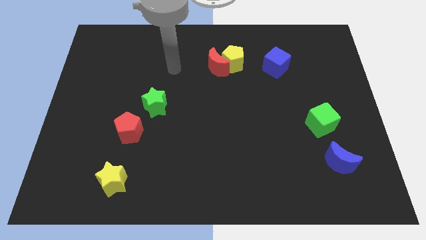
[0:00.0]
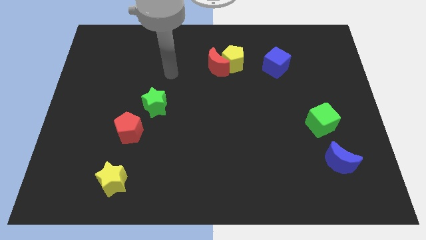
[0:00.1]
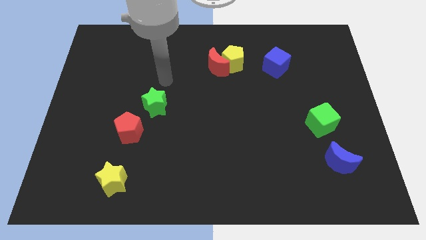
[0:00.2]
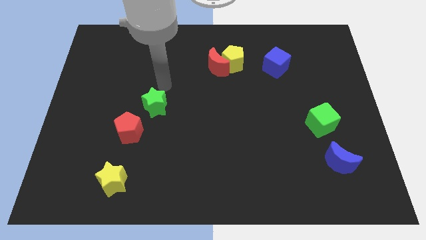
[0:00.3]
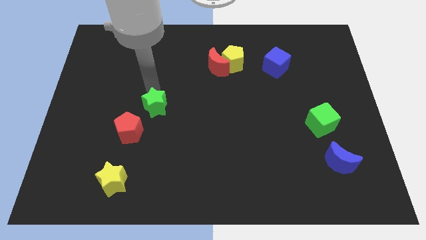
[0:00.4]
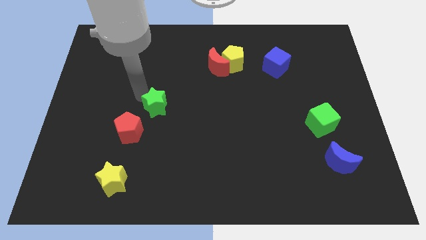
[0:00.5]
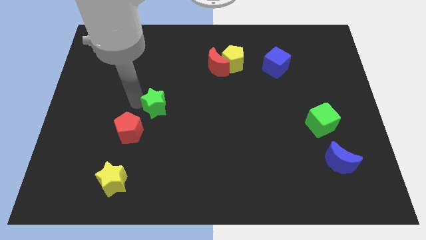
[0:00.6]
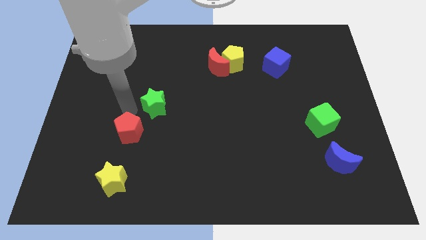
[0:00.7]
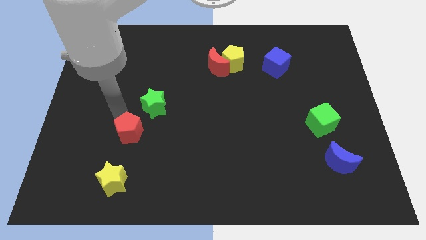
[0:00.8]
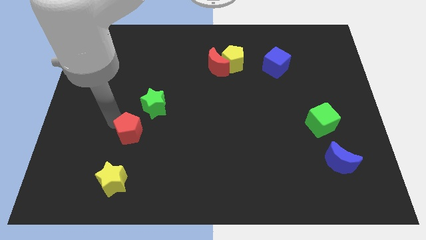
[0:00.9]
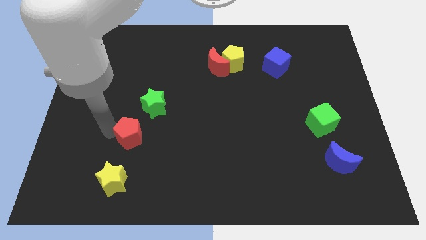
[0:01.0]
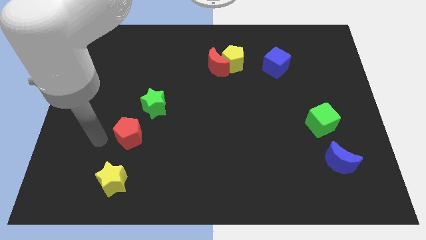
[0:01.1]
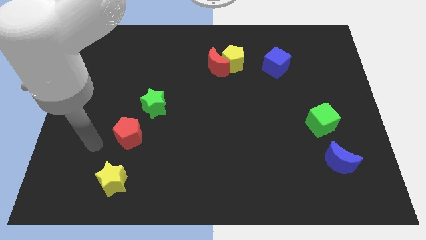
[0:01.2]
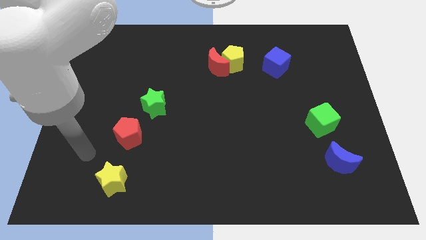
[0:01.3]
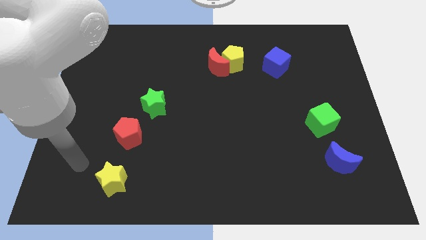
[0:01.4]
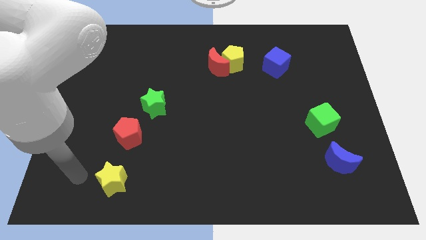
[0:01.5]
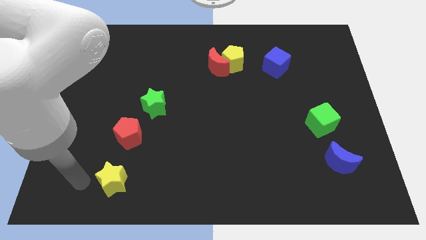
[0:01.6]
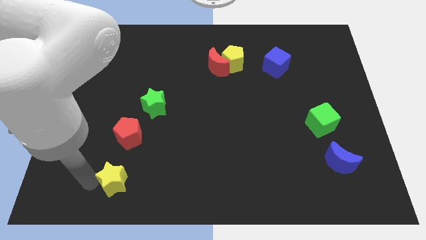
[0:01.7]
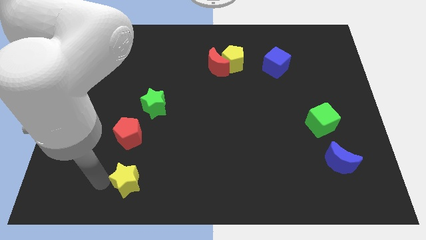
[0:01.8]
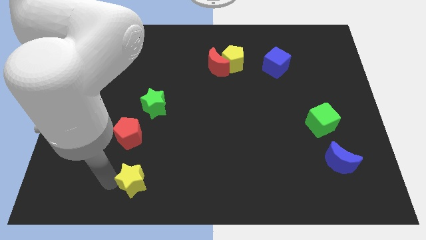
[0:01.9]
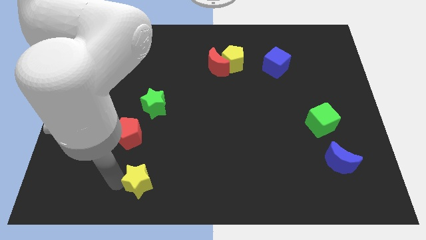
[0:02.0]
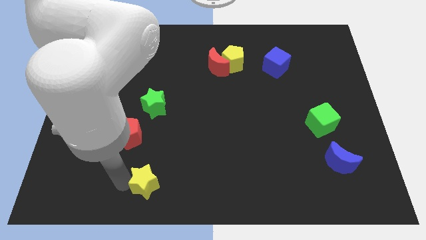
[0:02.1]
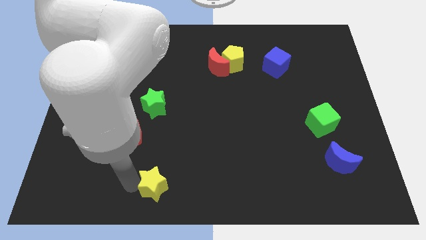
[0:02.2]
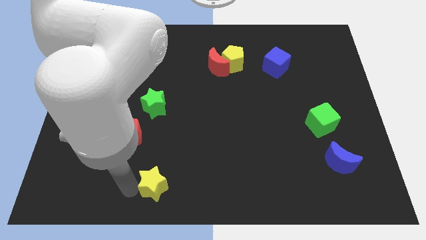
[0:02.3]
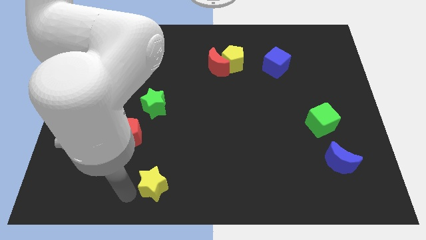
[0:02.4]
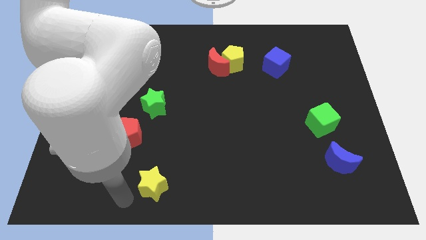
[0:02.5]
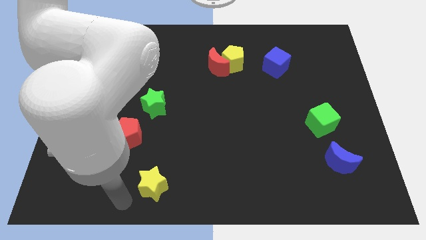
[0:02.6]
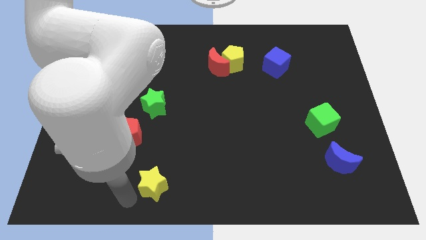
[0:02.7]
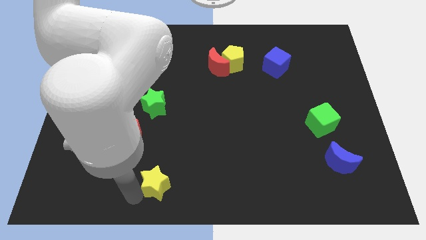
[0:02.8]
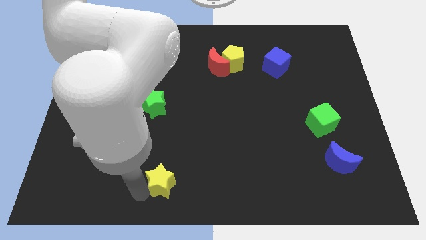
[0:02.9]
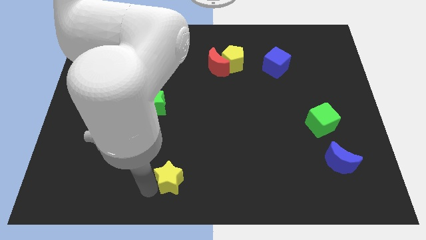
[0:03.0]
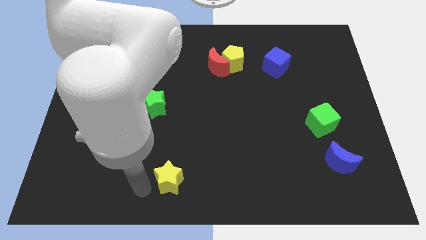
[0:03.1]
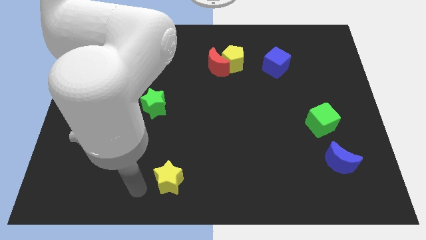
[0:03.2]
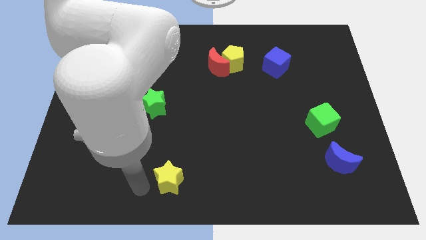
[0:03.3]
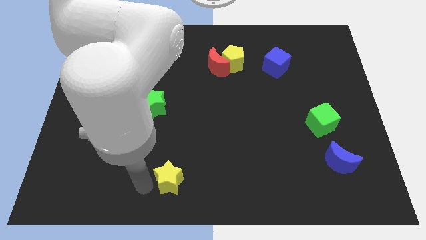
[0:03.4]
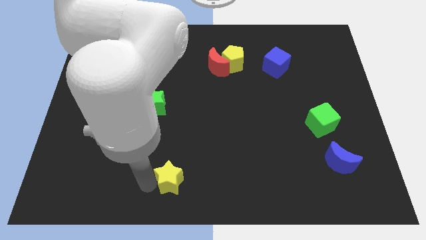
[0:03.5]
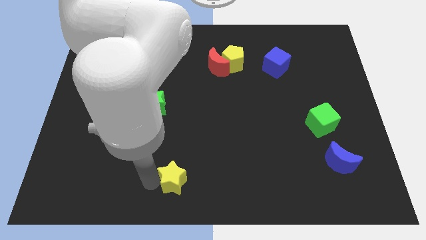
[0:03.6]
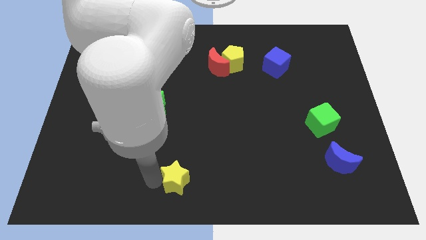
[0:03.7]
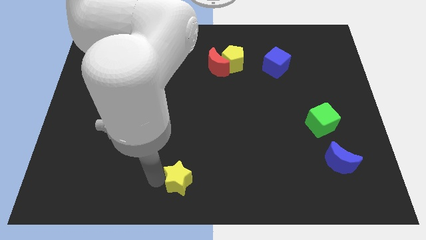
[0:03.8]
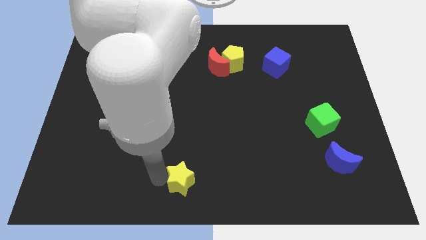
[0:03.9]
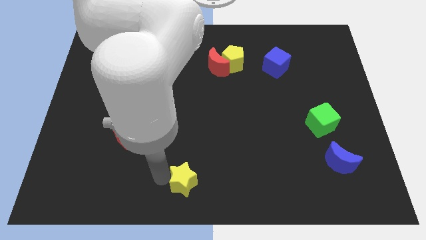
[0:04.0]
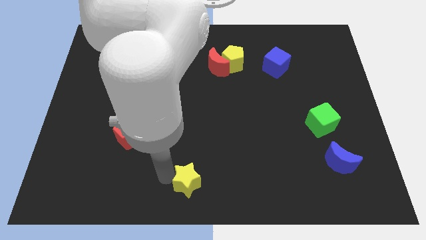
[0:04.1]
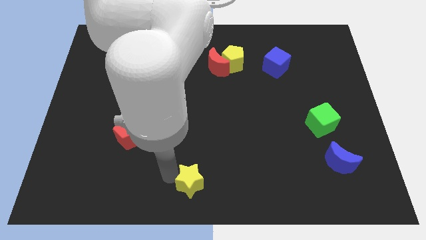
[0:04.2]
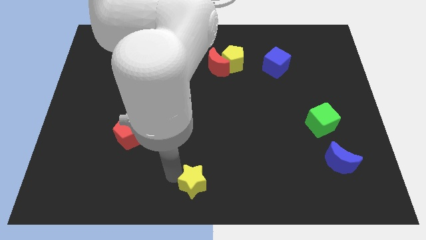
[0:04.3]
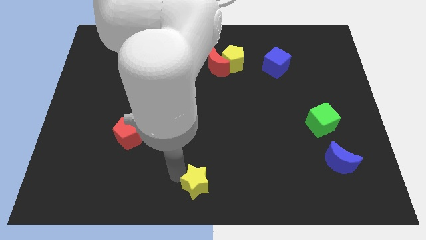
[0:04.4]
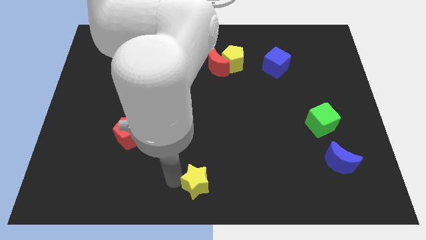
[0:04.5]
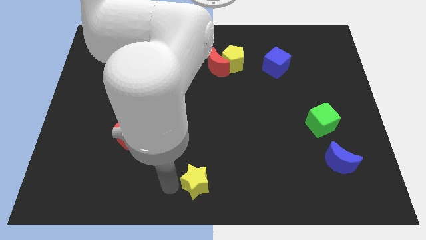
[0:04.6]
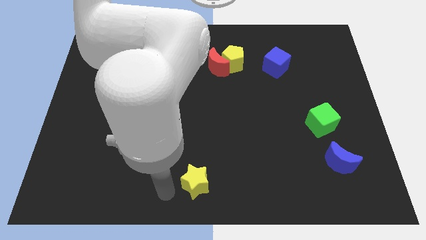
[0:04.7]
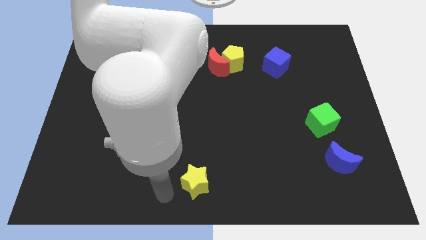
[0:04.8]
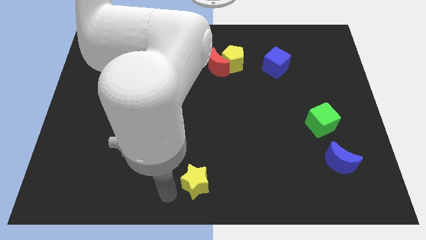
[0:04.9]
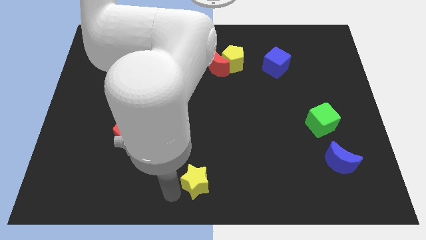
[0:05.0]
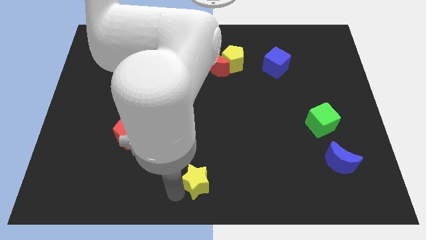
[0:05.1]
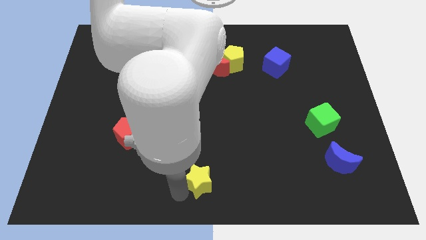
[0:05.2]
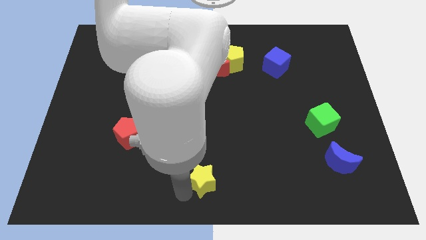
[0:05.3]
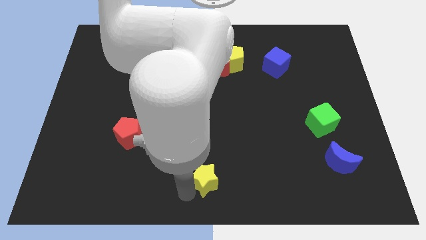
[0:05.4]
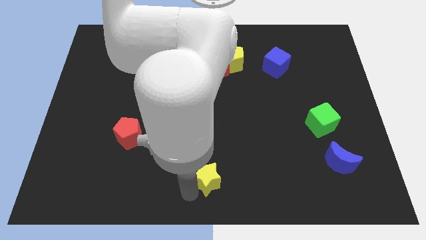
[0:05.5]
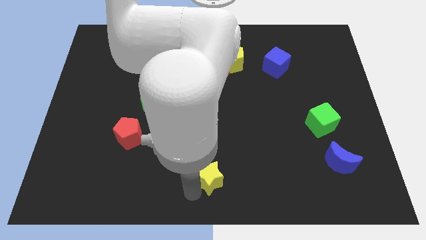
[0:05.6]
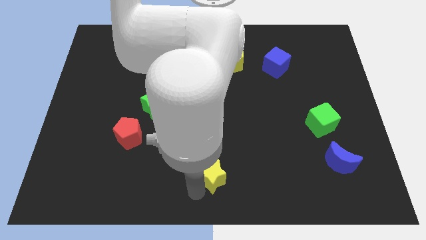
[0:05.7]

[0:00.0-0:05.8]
move the yellow star right

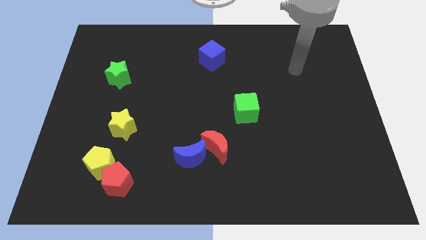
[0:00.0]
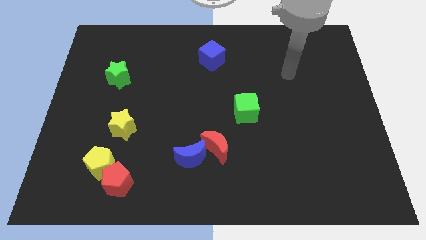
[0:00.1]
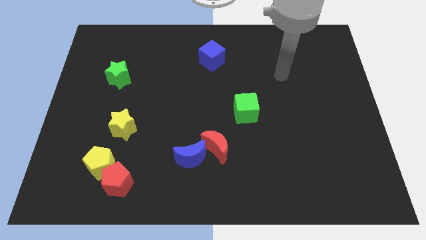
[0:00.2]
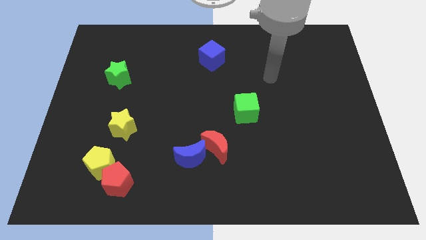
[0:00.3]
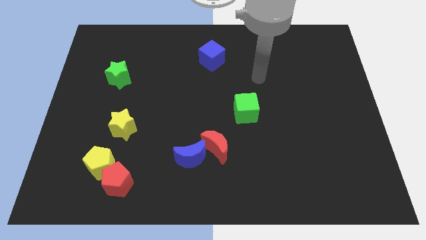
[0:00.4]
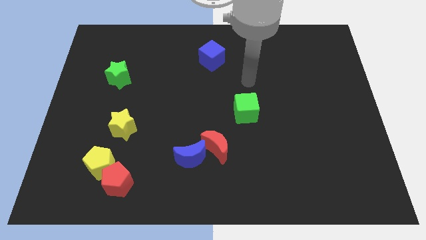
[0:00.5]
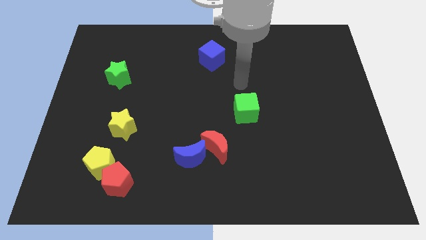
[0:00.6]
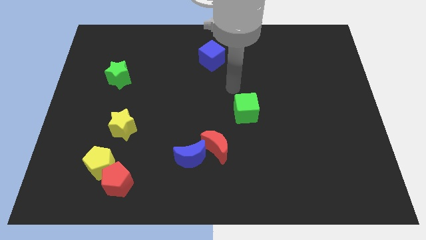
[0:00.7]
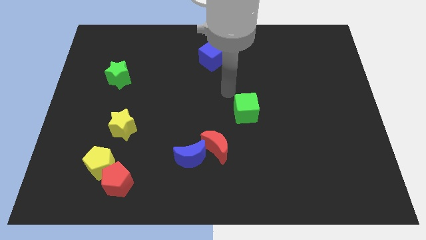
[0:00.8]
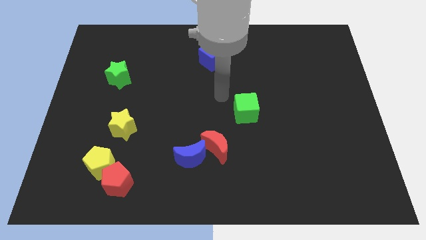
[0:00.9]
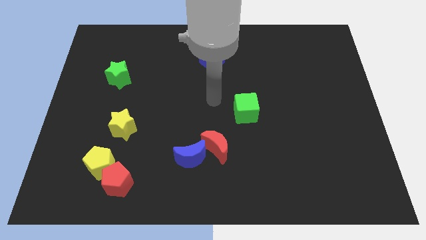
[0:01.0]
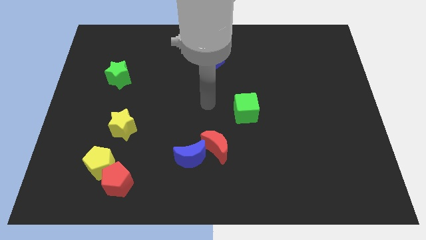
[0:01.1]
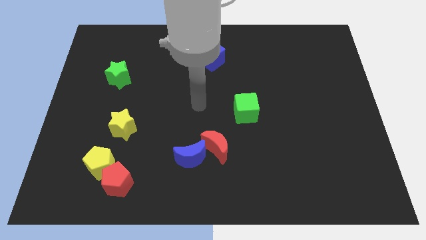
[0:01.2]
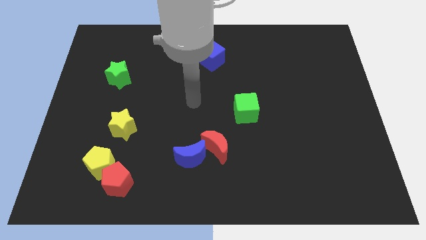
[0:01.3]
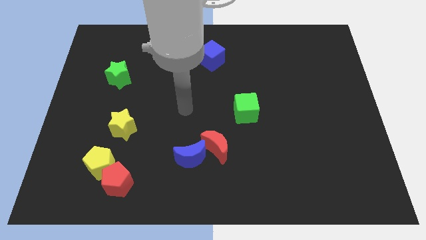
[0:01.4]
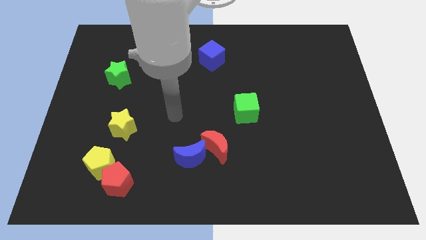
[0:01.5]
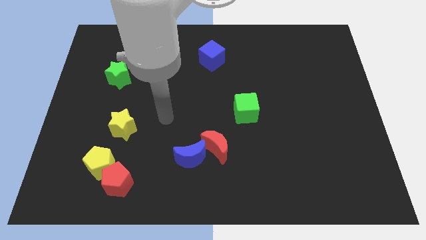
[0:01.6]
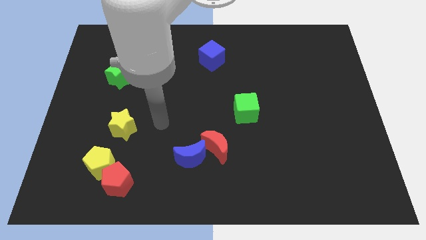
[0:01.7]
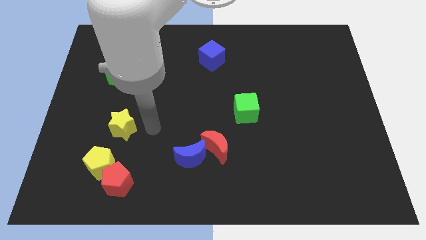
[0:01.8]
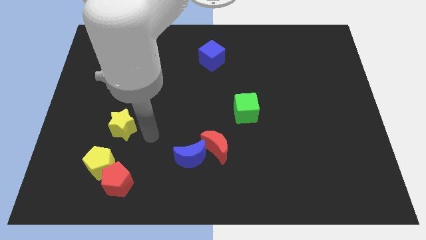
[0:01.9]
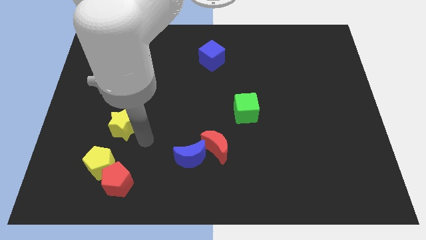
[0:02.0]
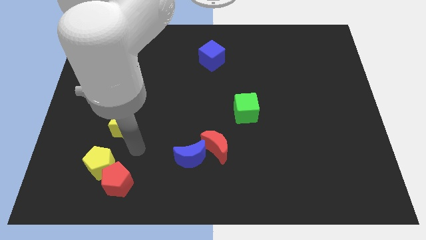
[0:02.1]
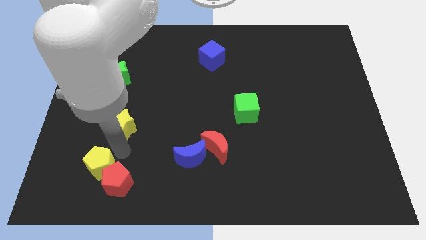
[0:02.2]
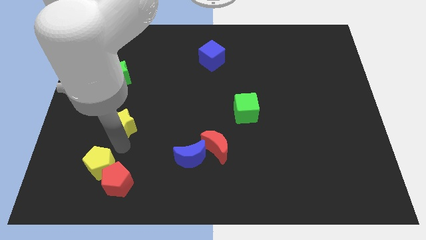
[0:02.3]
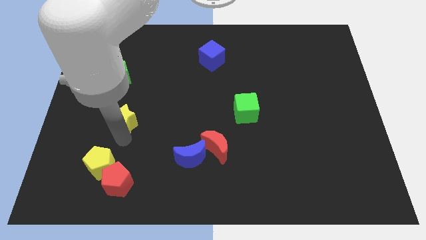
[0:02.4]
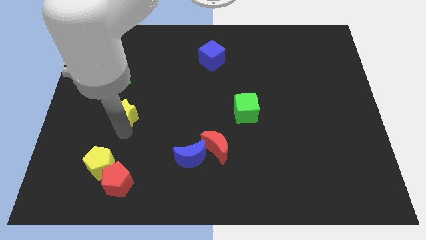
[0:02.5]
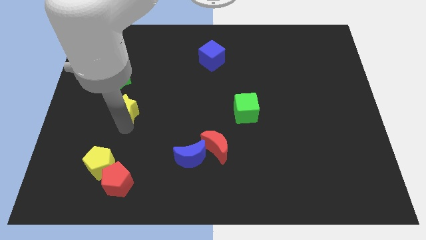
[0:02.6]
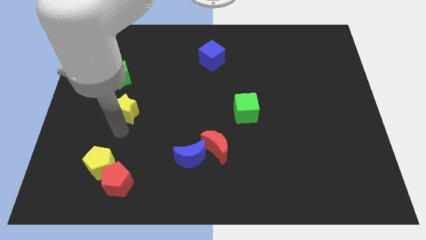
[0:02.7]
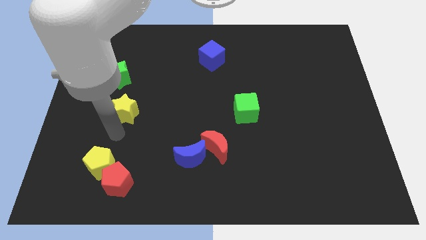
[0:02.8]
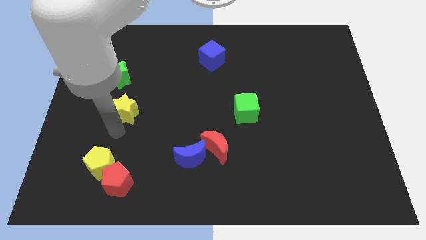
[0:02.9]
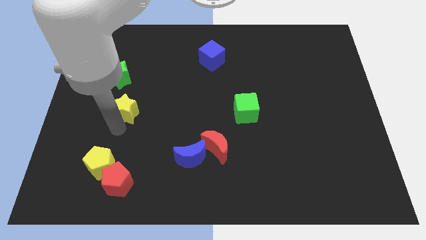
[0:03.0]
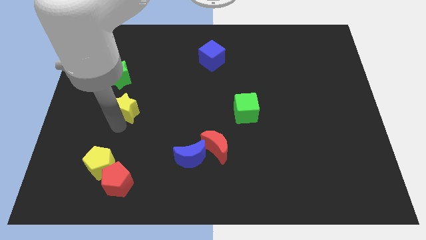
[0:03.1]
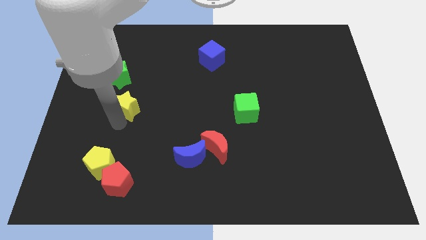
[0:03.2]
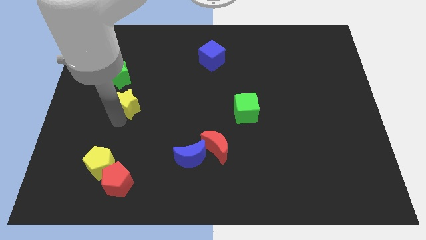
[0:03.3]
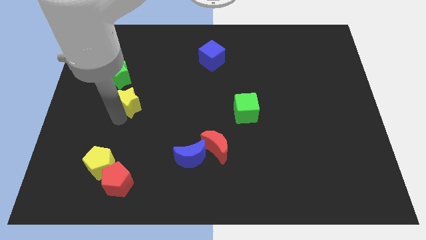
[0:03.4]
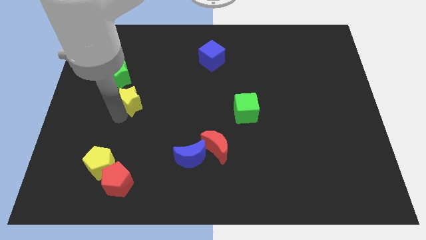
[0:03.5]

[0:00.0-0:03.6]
slightly slide the yellow star upwards
